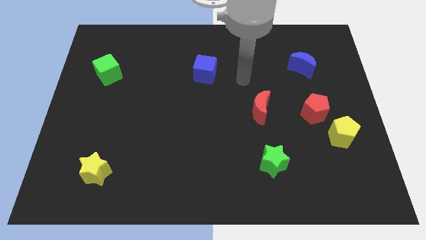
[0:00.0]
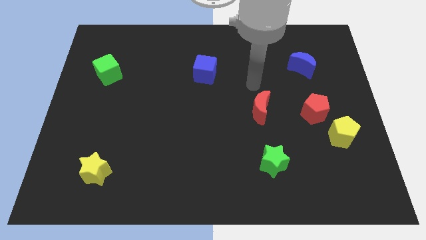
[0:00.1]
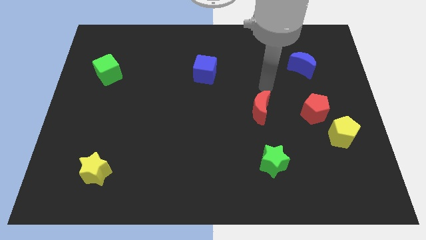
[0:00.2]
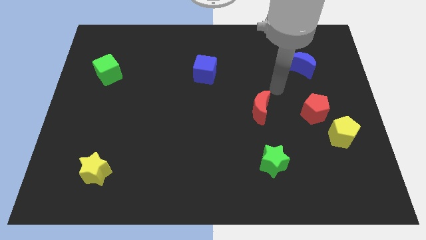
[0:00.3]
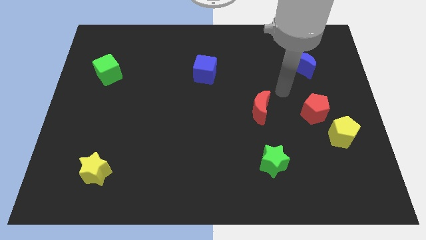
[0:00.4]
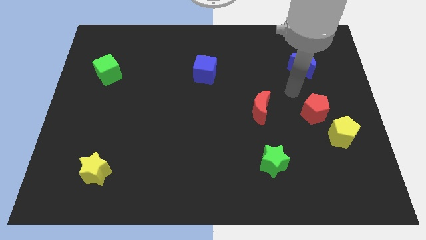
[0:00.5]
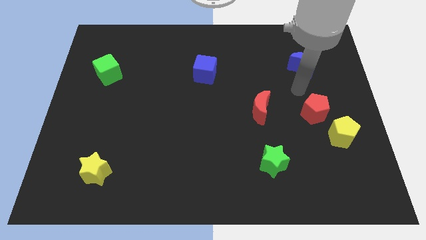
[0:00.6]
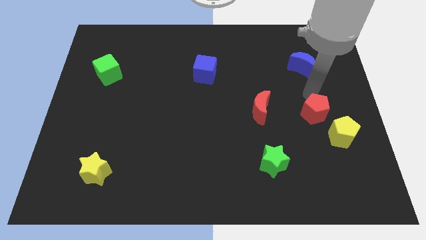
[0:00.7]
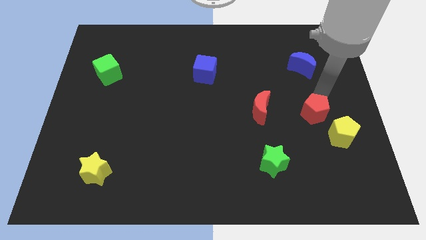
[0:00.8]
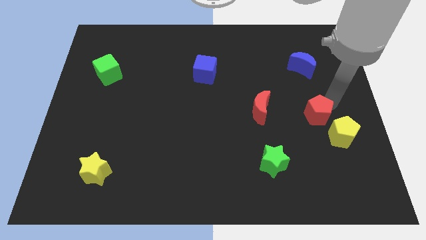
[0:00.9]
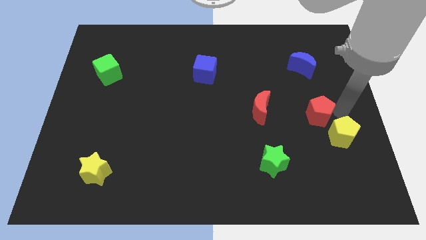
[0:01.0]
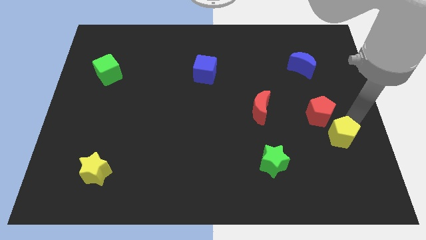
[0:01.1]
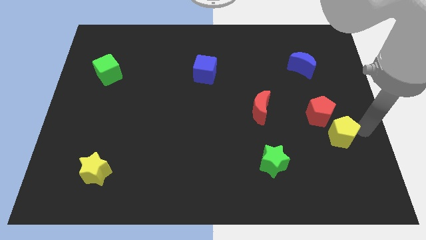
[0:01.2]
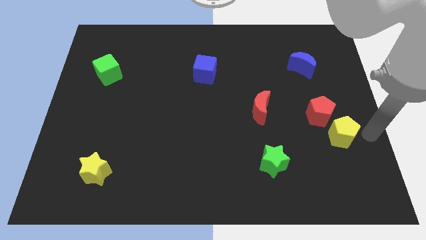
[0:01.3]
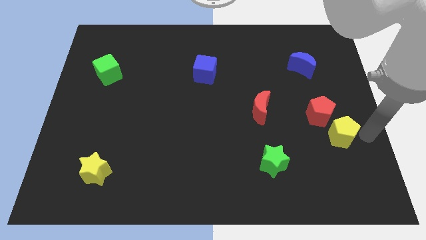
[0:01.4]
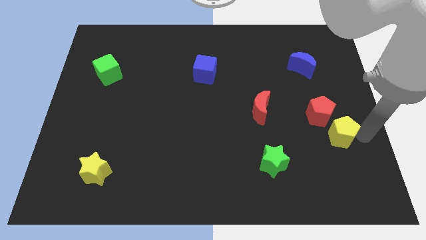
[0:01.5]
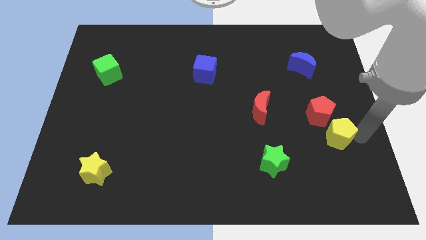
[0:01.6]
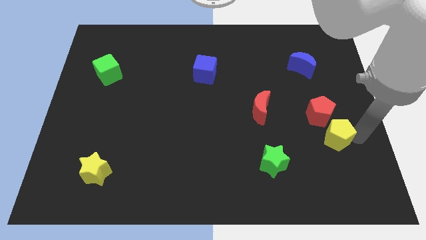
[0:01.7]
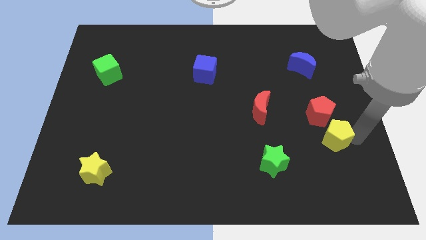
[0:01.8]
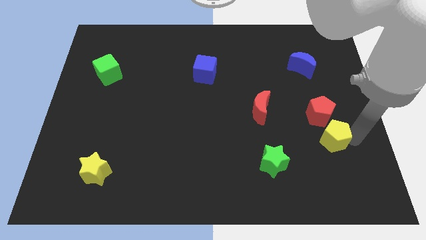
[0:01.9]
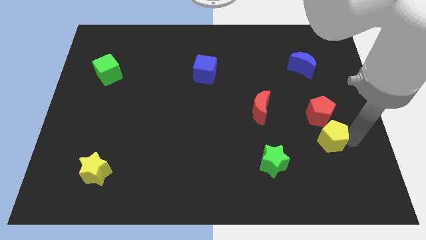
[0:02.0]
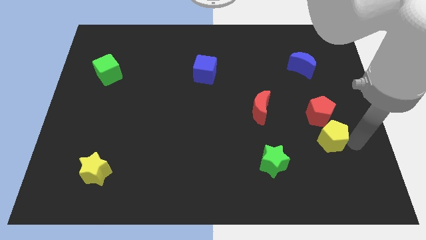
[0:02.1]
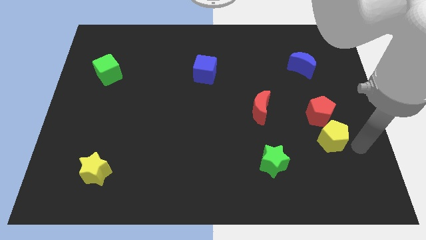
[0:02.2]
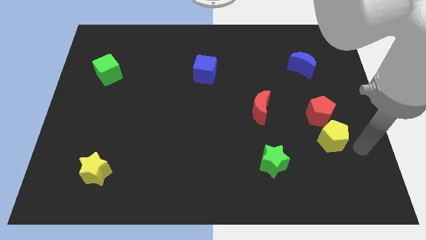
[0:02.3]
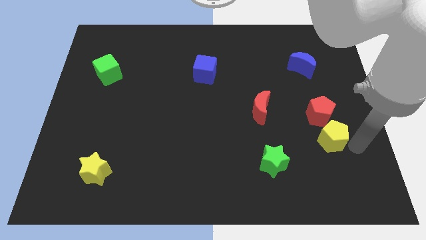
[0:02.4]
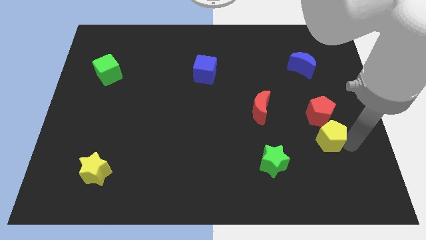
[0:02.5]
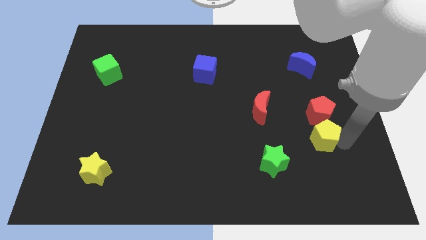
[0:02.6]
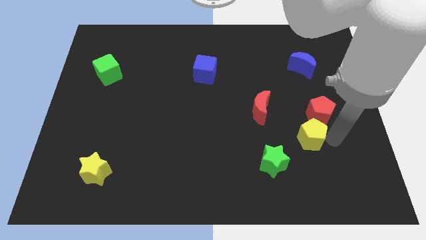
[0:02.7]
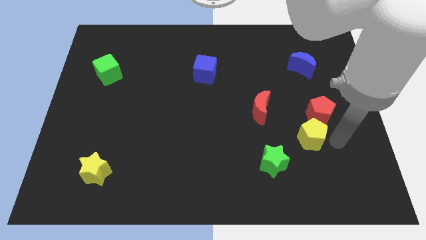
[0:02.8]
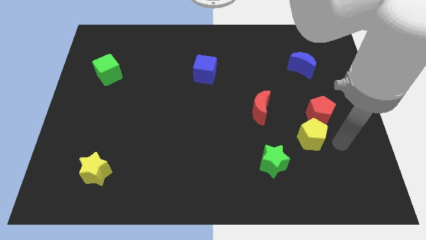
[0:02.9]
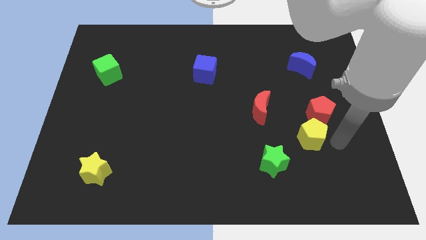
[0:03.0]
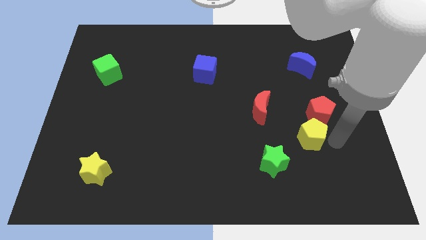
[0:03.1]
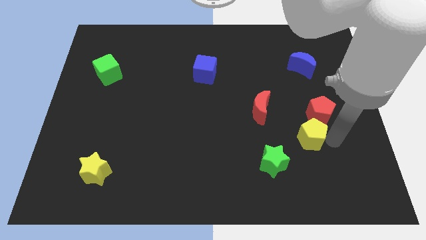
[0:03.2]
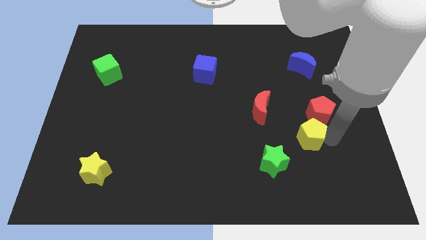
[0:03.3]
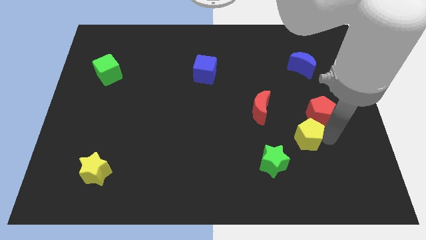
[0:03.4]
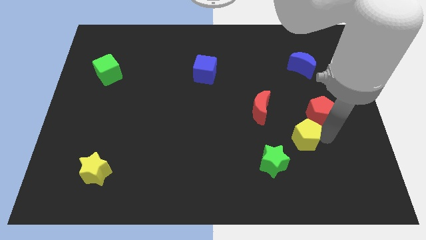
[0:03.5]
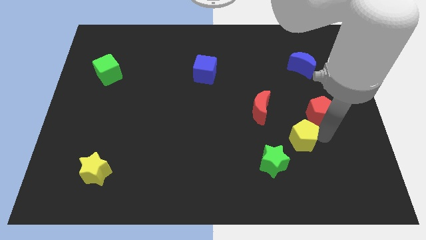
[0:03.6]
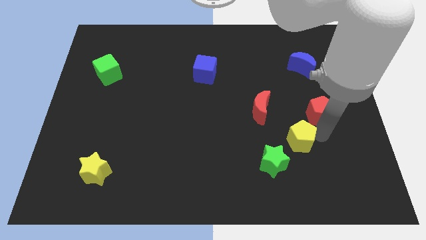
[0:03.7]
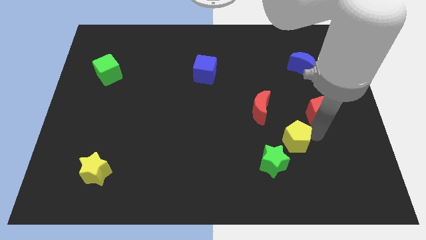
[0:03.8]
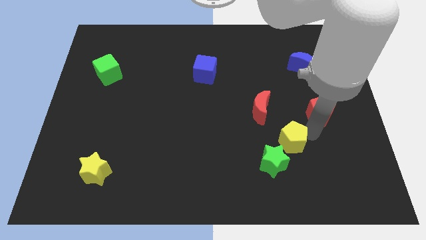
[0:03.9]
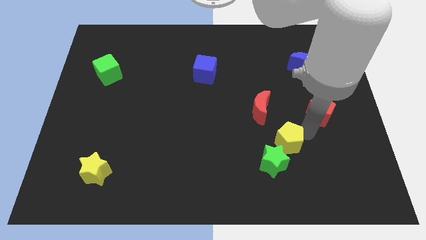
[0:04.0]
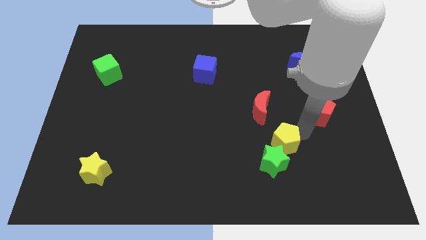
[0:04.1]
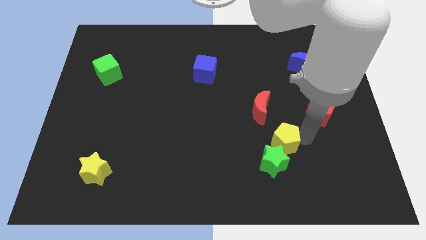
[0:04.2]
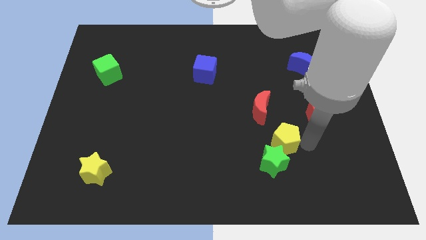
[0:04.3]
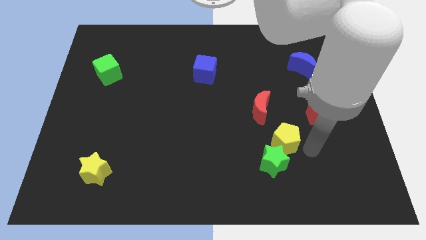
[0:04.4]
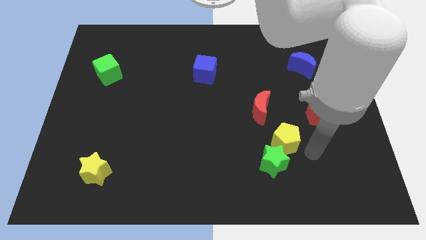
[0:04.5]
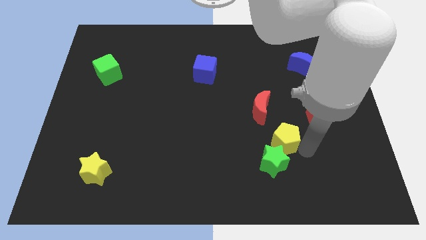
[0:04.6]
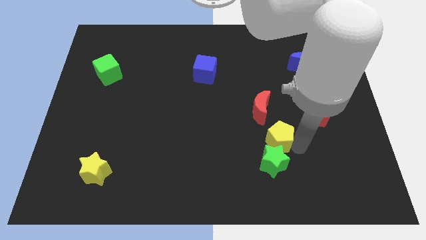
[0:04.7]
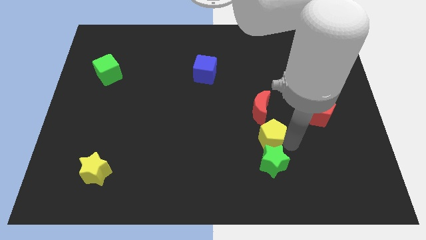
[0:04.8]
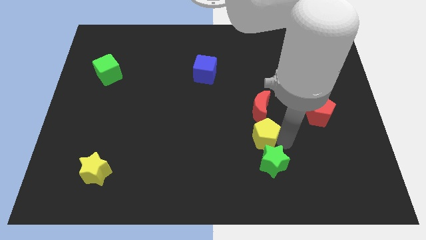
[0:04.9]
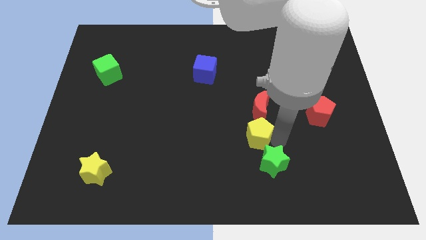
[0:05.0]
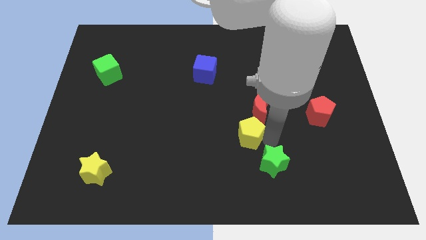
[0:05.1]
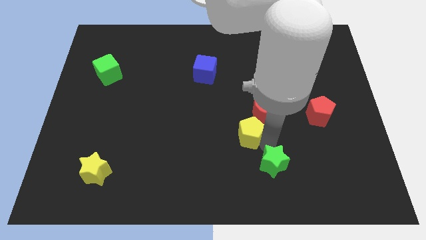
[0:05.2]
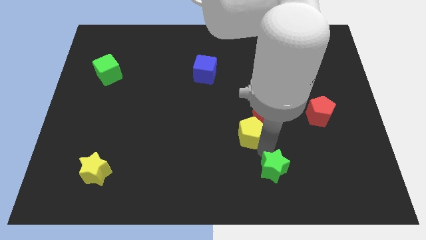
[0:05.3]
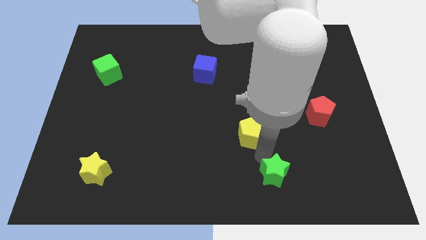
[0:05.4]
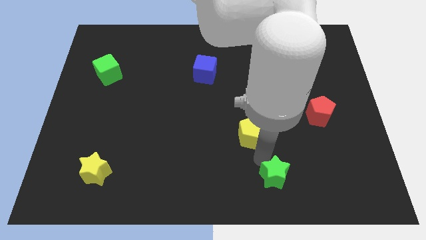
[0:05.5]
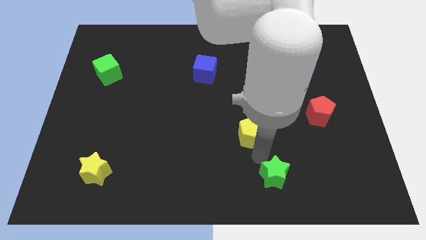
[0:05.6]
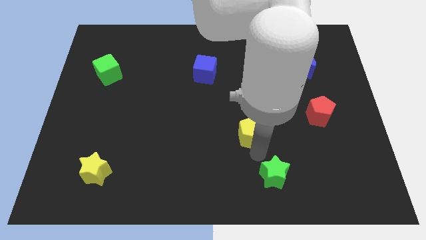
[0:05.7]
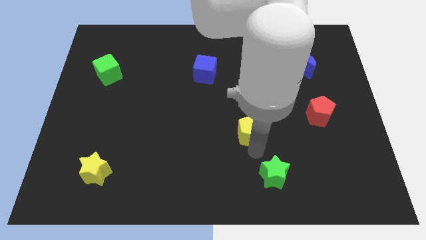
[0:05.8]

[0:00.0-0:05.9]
slide the yellow pentagon to the middle of the board

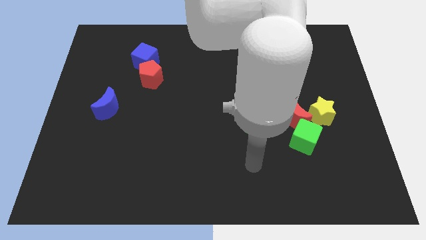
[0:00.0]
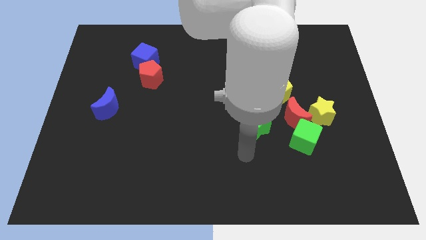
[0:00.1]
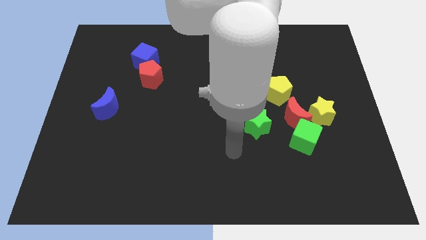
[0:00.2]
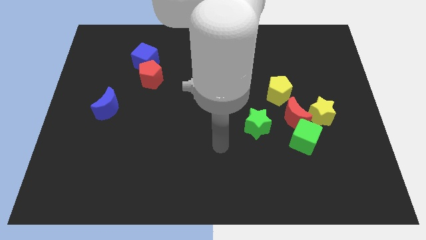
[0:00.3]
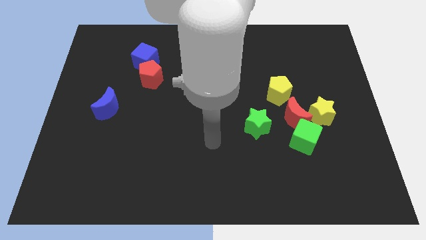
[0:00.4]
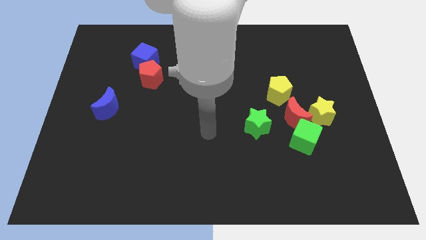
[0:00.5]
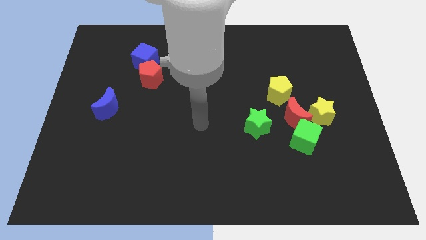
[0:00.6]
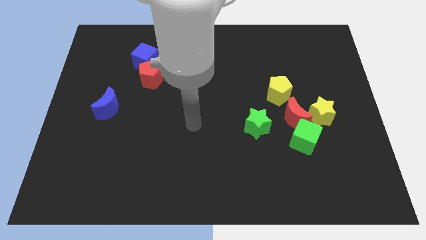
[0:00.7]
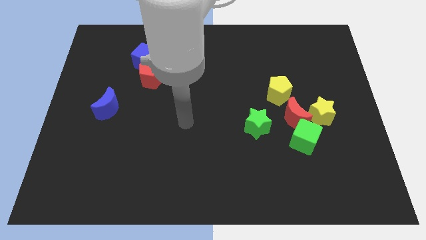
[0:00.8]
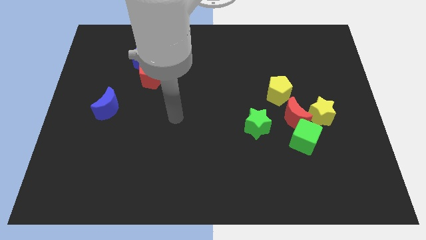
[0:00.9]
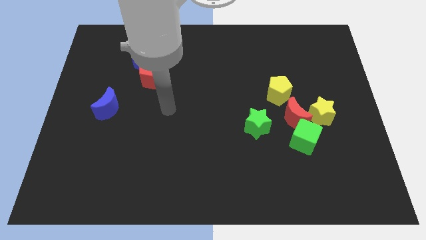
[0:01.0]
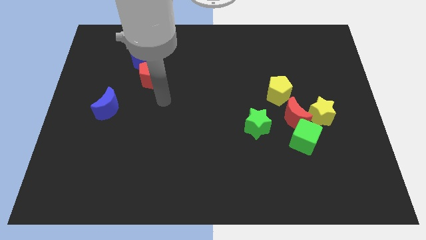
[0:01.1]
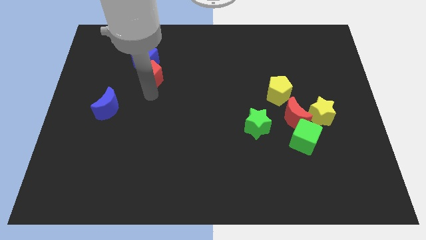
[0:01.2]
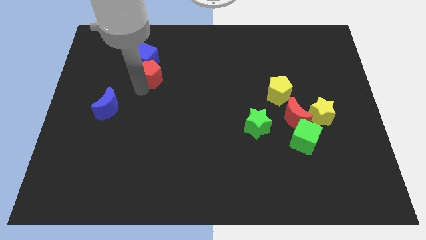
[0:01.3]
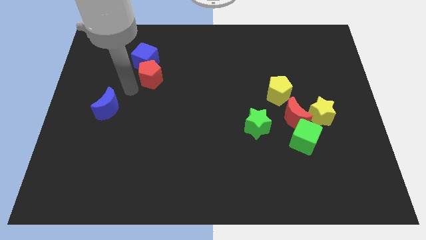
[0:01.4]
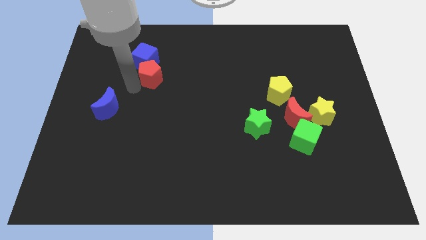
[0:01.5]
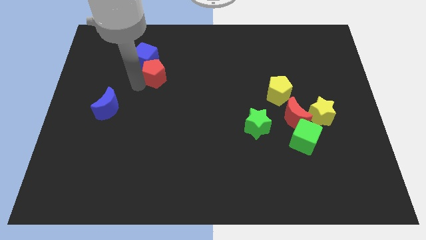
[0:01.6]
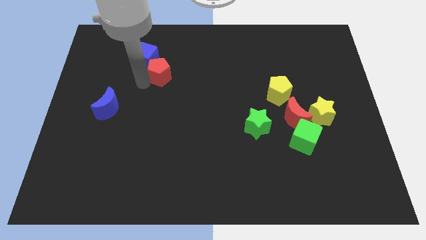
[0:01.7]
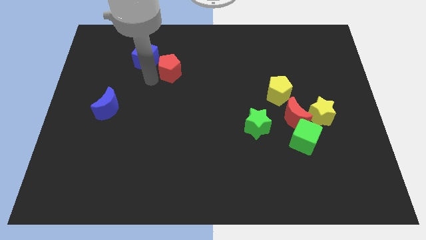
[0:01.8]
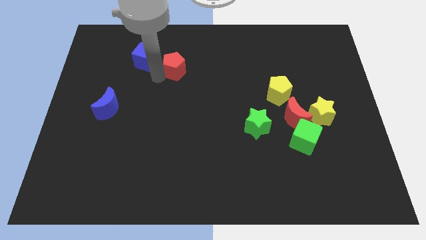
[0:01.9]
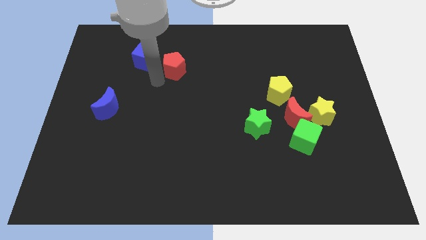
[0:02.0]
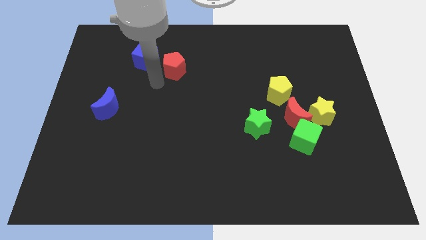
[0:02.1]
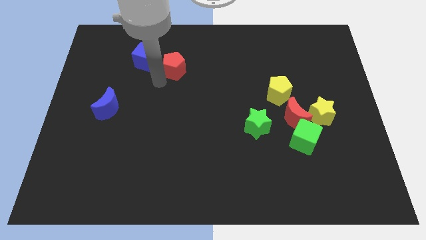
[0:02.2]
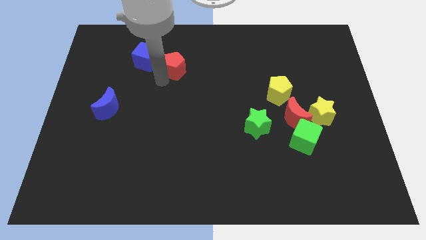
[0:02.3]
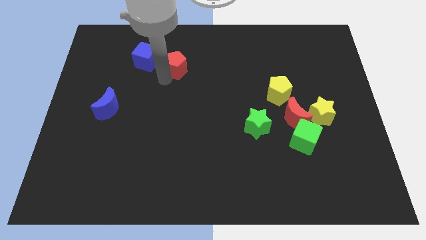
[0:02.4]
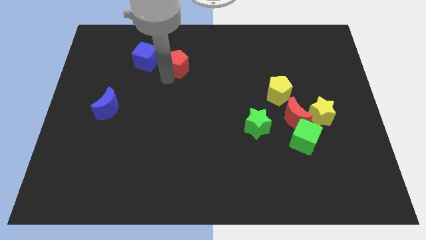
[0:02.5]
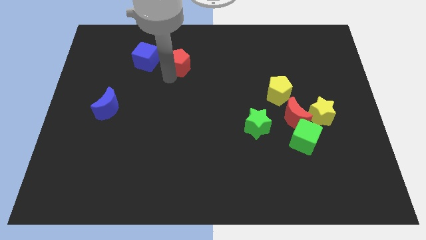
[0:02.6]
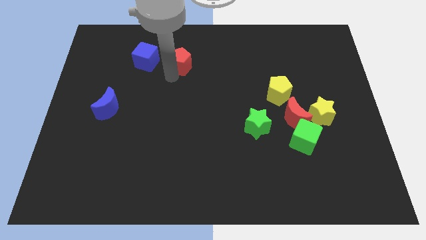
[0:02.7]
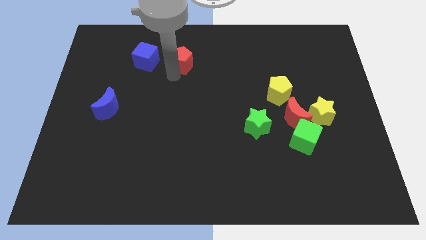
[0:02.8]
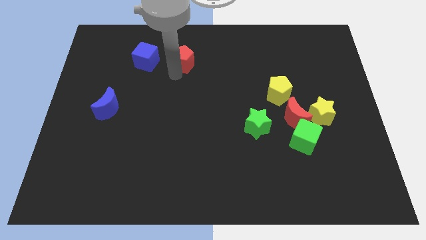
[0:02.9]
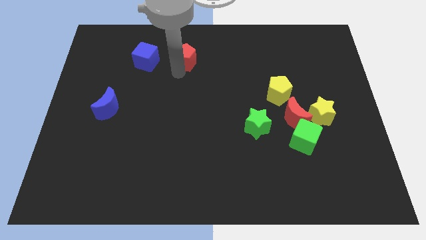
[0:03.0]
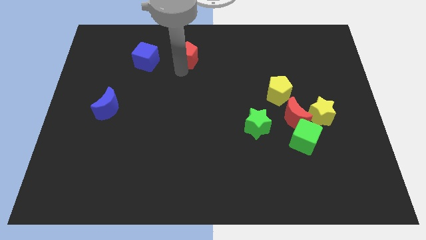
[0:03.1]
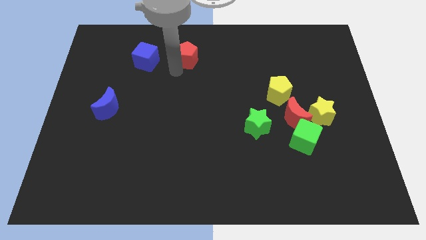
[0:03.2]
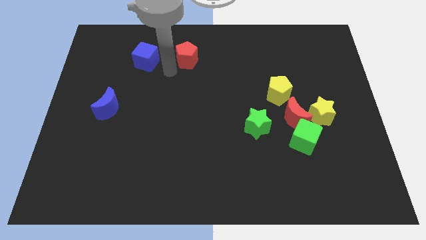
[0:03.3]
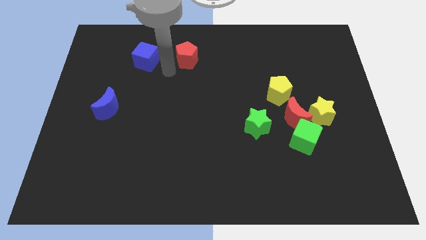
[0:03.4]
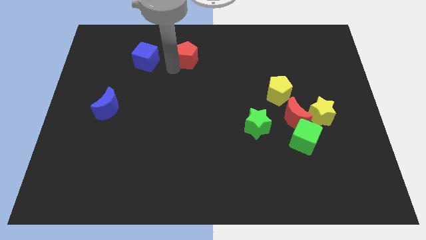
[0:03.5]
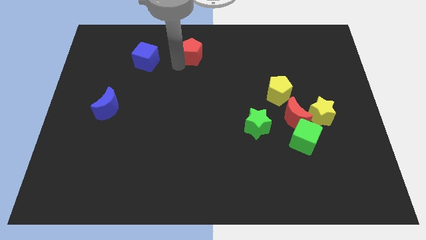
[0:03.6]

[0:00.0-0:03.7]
push the red pentagon to the top
